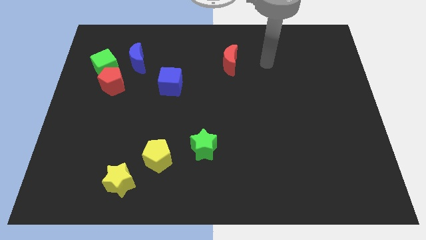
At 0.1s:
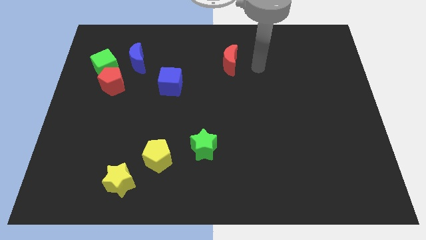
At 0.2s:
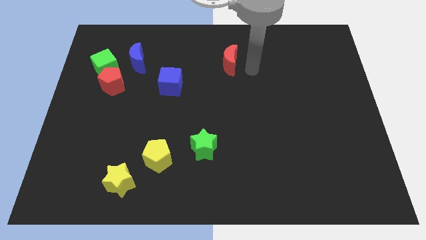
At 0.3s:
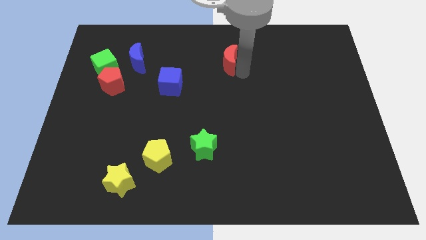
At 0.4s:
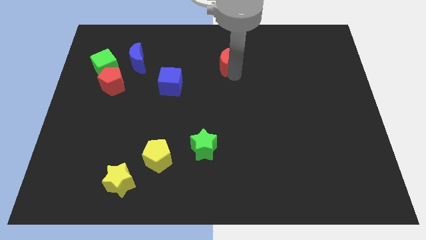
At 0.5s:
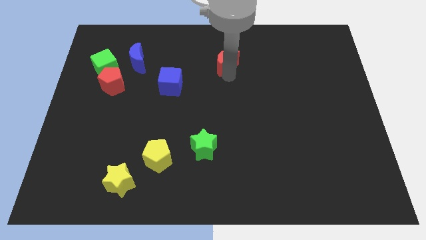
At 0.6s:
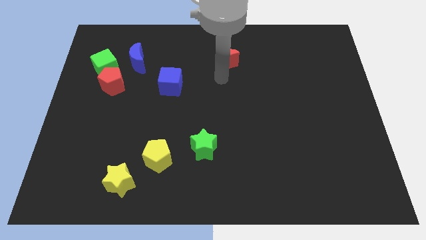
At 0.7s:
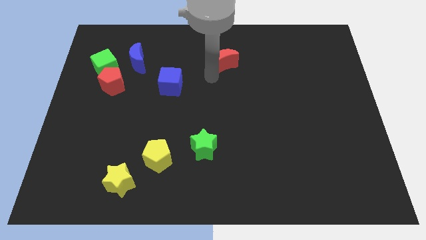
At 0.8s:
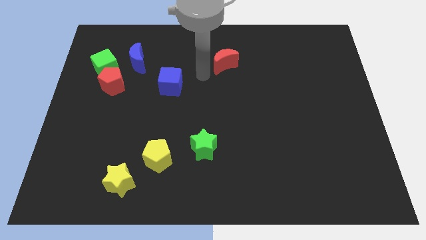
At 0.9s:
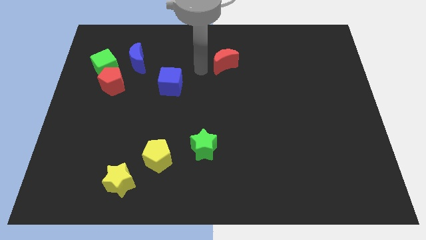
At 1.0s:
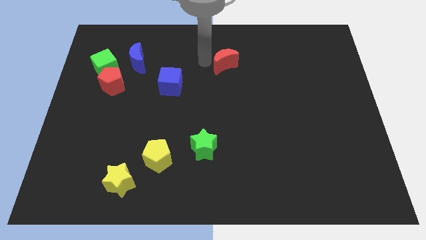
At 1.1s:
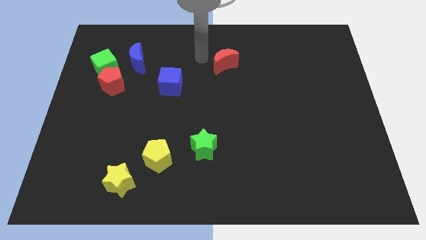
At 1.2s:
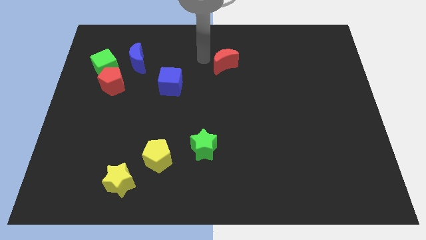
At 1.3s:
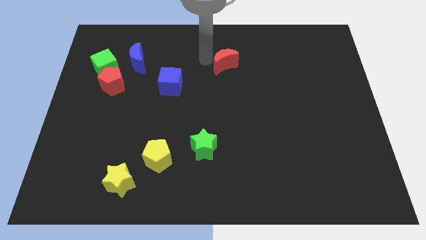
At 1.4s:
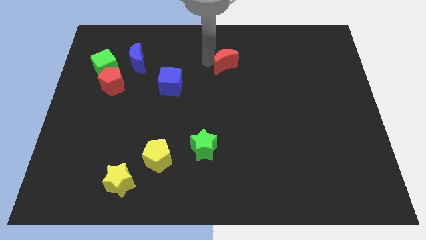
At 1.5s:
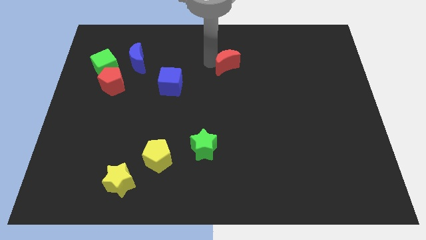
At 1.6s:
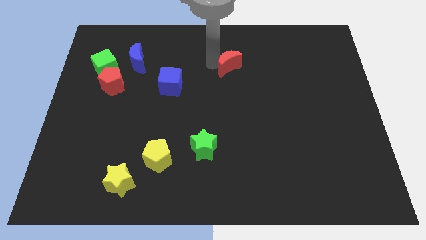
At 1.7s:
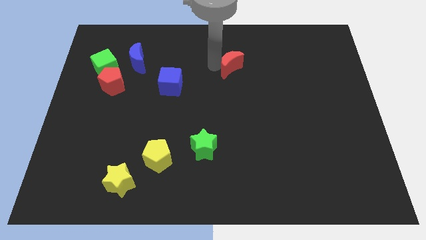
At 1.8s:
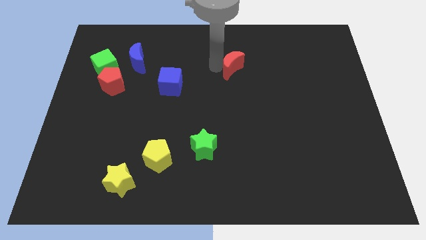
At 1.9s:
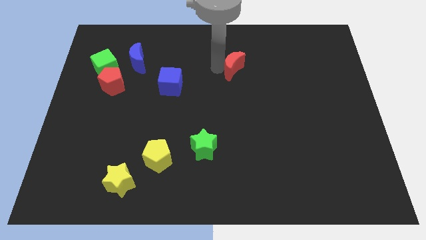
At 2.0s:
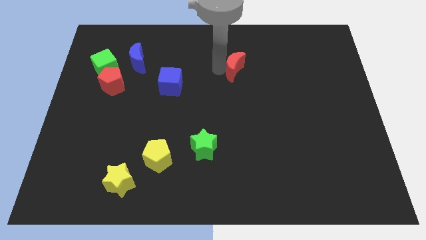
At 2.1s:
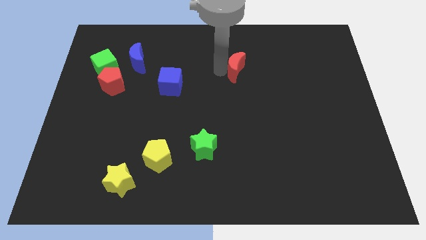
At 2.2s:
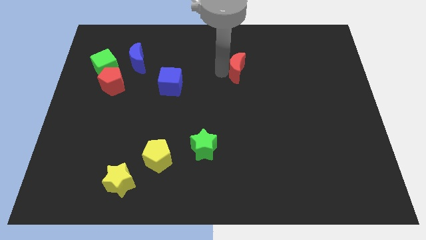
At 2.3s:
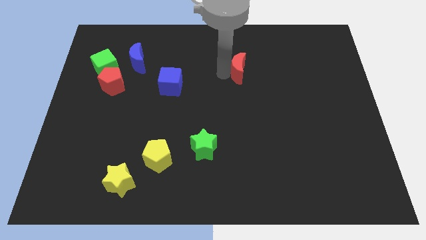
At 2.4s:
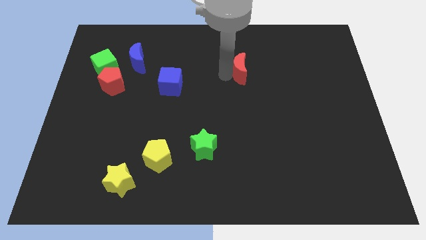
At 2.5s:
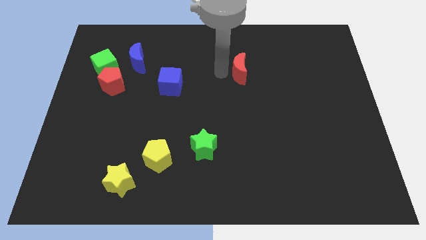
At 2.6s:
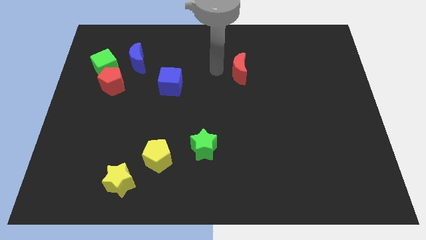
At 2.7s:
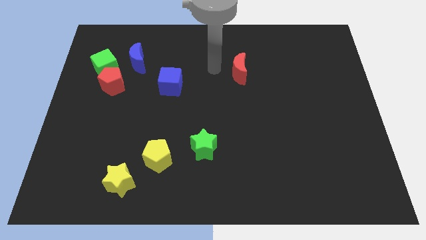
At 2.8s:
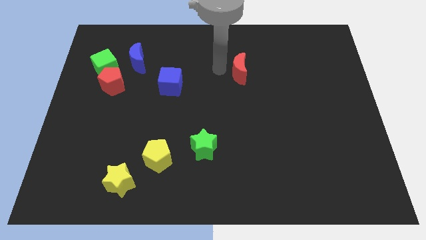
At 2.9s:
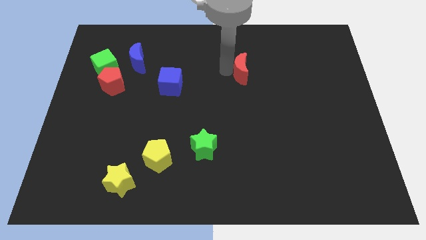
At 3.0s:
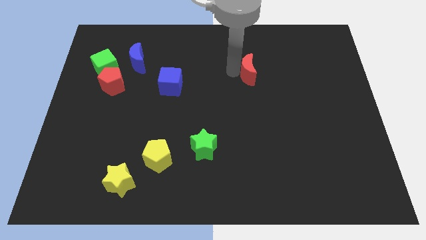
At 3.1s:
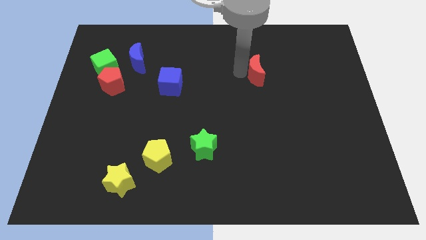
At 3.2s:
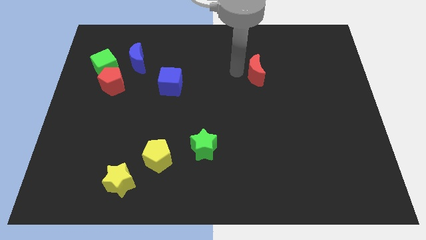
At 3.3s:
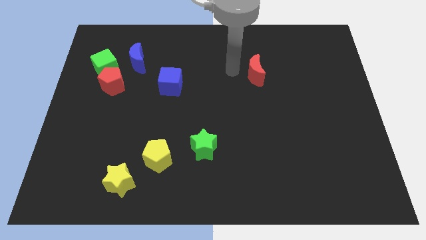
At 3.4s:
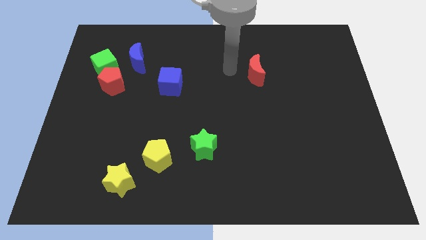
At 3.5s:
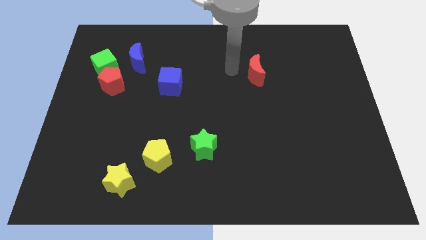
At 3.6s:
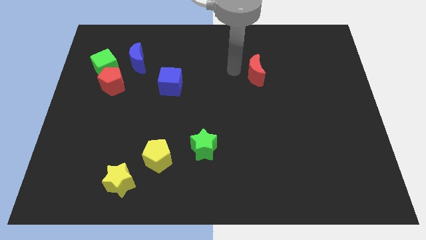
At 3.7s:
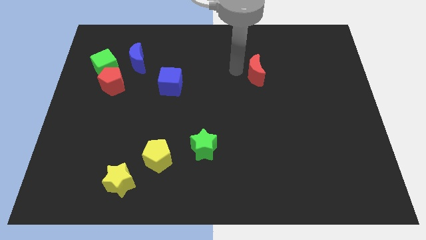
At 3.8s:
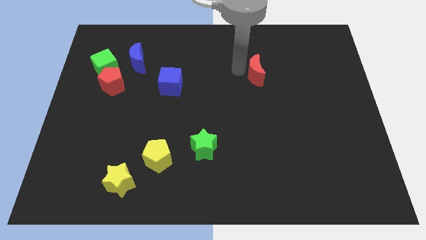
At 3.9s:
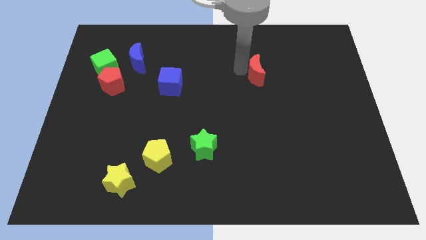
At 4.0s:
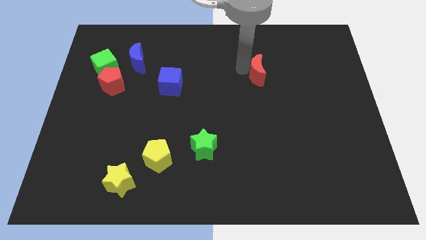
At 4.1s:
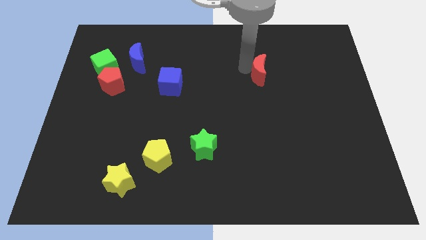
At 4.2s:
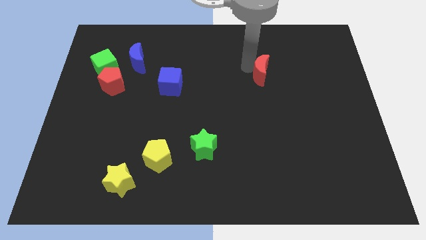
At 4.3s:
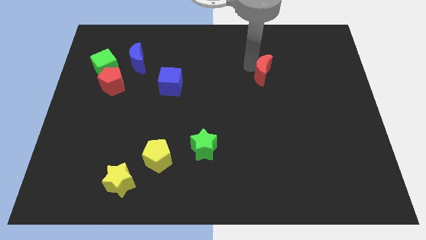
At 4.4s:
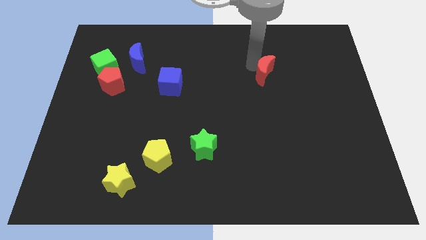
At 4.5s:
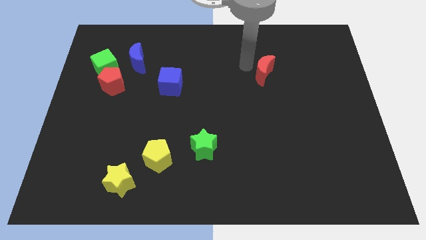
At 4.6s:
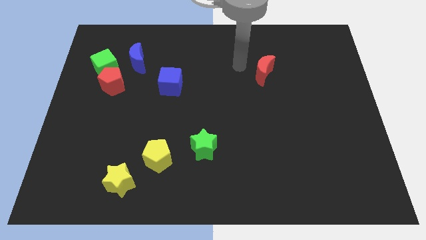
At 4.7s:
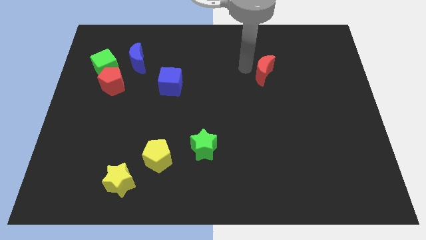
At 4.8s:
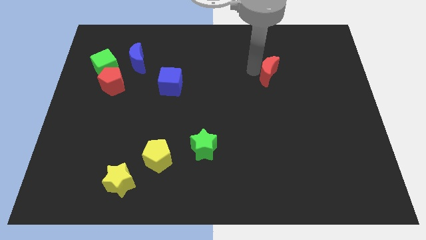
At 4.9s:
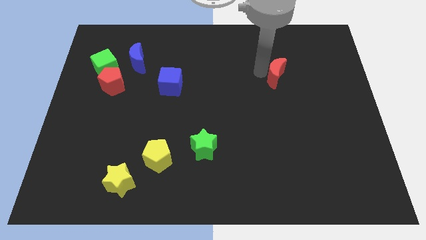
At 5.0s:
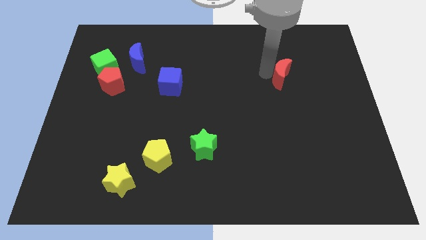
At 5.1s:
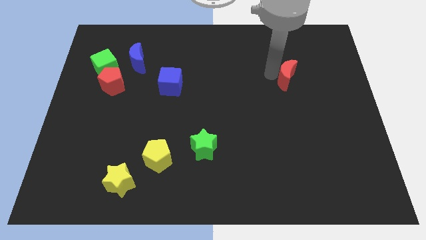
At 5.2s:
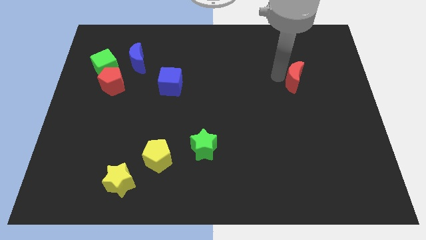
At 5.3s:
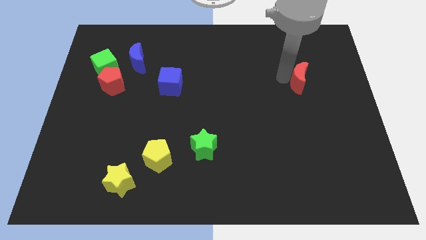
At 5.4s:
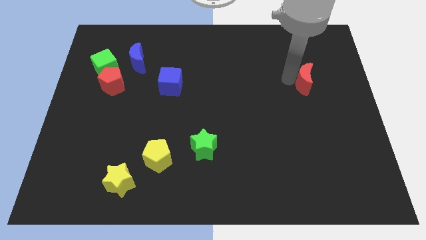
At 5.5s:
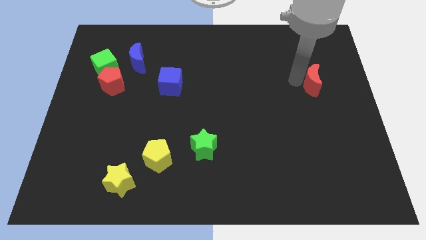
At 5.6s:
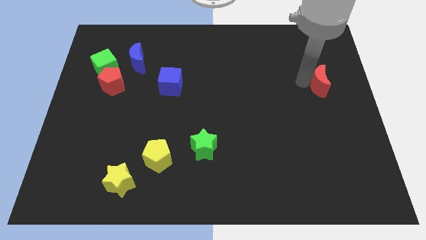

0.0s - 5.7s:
put the red moon to the right side of the board
